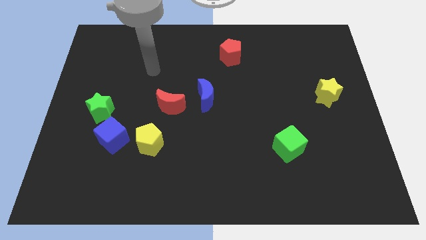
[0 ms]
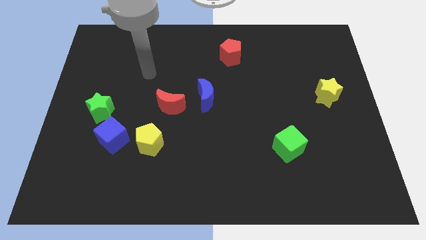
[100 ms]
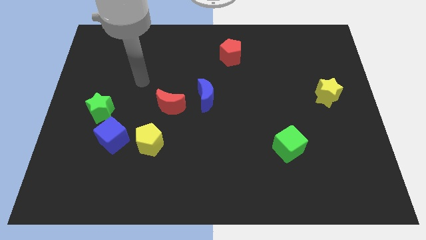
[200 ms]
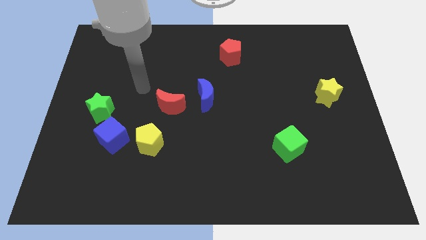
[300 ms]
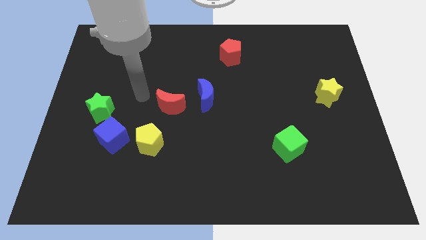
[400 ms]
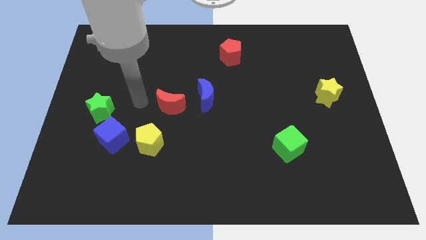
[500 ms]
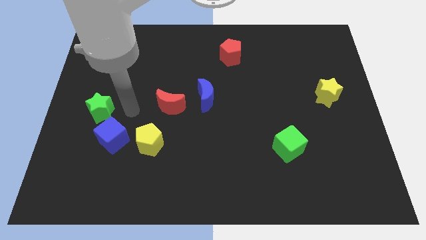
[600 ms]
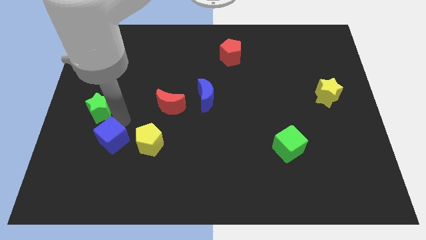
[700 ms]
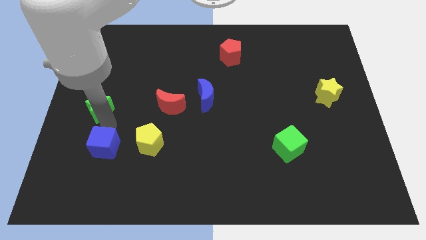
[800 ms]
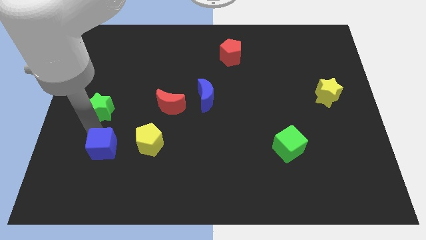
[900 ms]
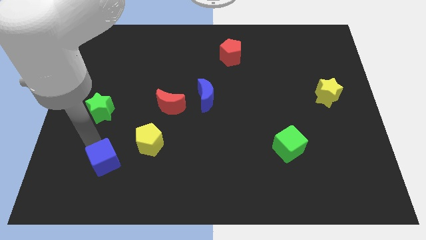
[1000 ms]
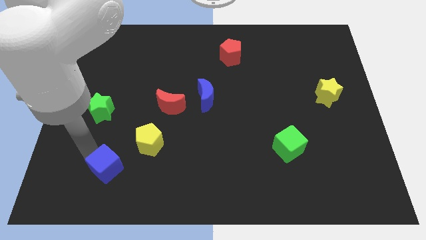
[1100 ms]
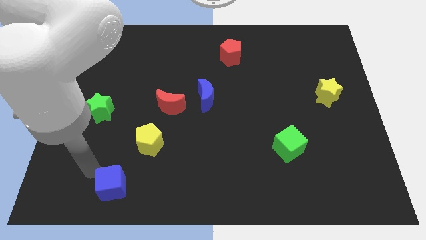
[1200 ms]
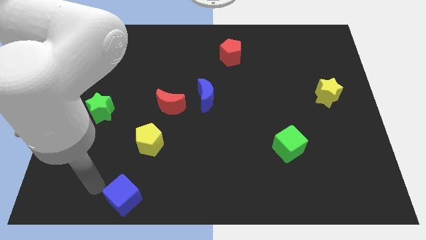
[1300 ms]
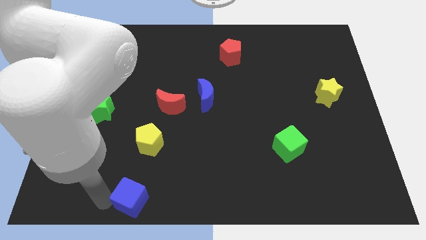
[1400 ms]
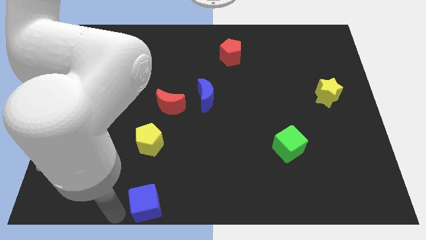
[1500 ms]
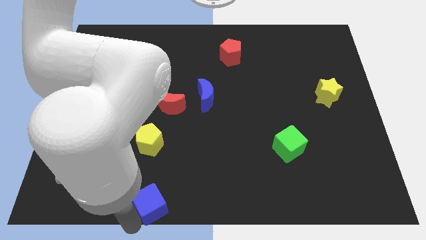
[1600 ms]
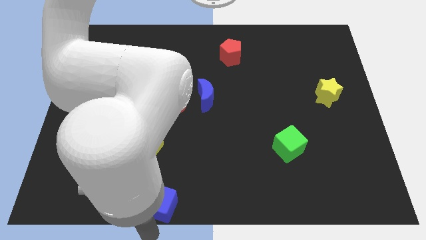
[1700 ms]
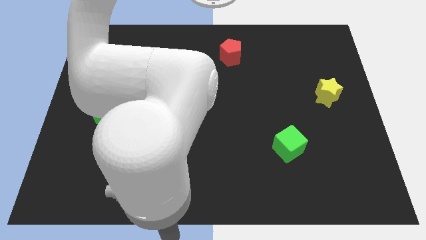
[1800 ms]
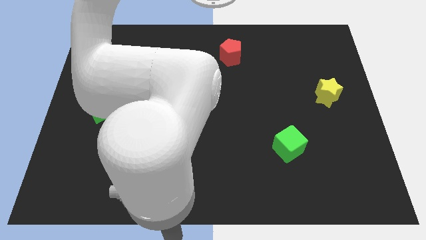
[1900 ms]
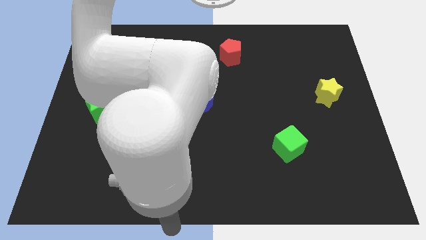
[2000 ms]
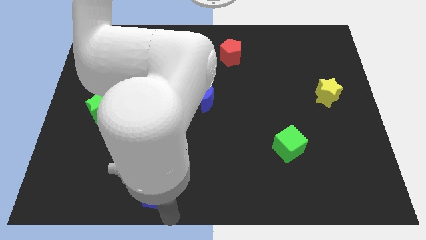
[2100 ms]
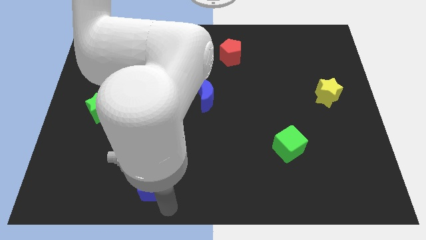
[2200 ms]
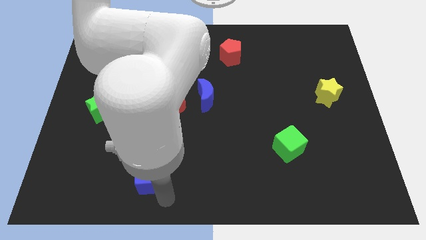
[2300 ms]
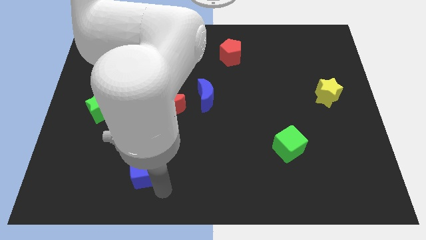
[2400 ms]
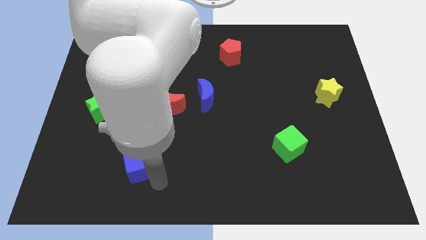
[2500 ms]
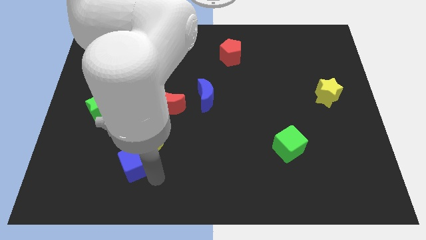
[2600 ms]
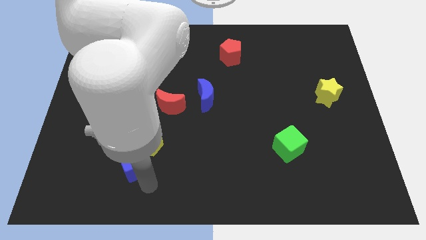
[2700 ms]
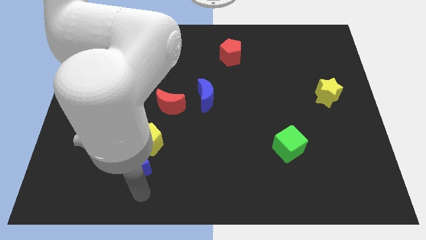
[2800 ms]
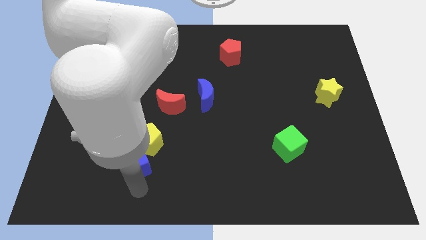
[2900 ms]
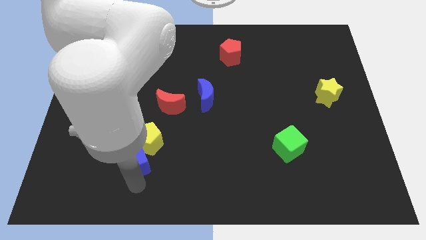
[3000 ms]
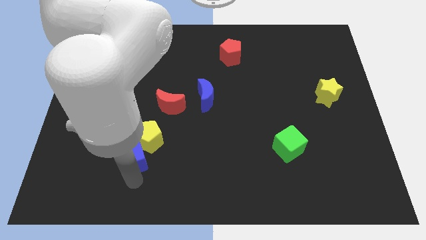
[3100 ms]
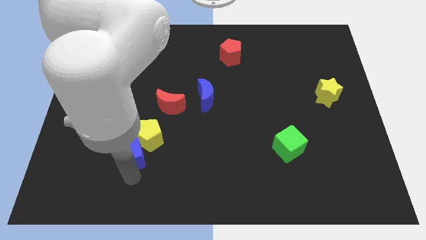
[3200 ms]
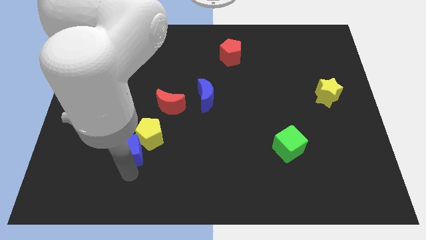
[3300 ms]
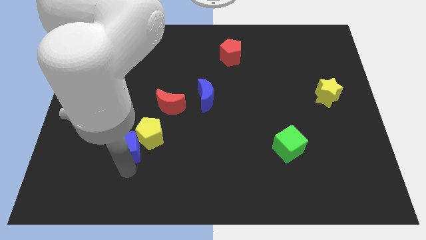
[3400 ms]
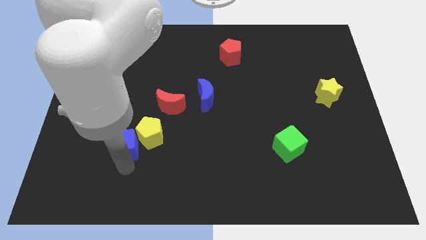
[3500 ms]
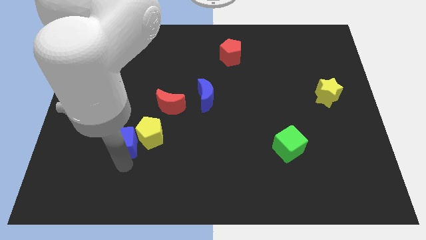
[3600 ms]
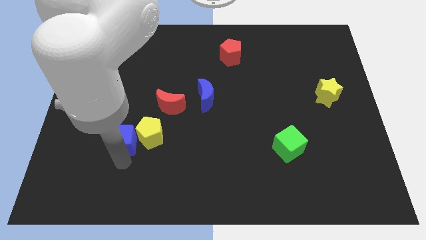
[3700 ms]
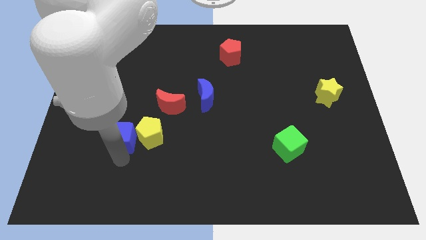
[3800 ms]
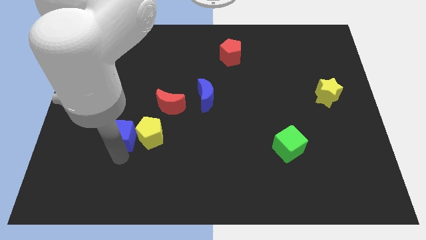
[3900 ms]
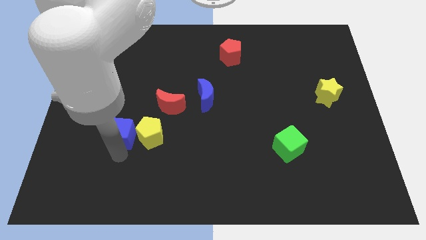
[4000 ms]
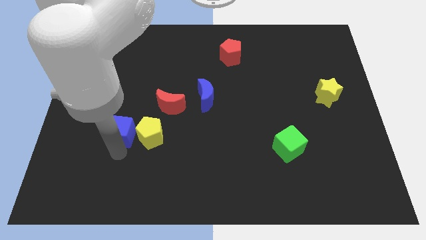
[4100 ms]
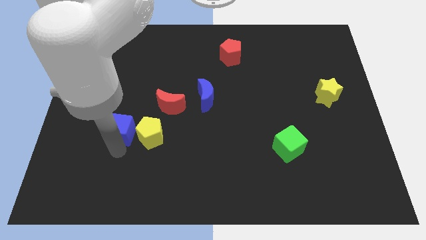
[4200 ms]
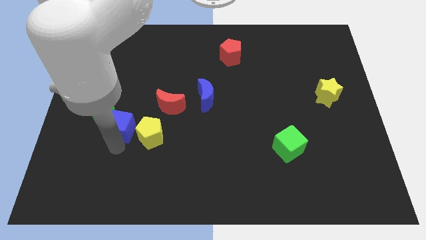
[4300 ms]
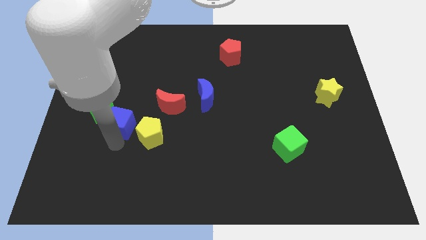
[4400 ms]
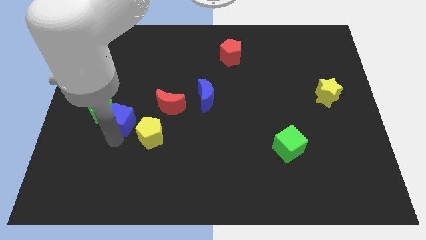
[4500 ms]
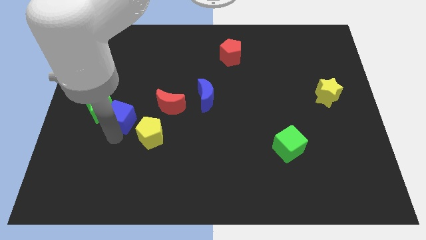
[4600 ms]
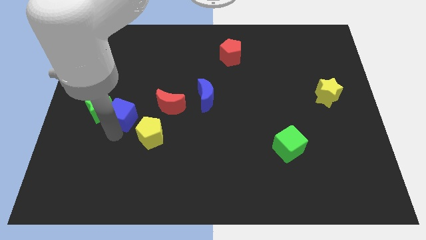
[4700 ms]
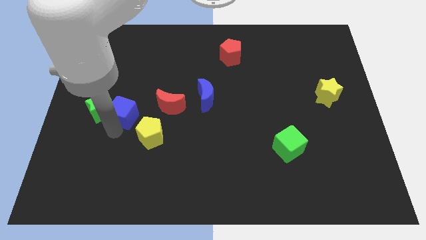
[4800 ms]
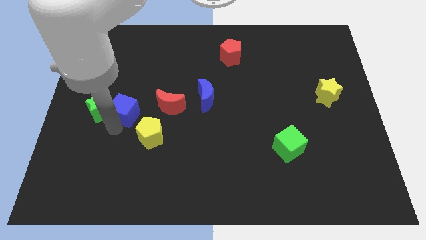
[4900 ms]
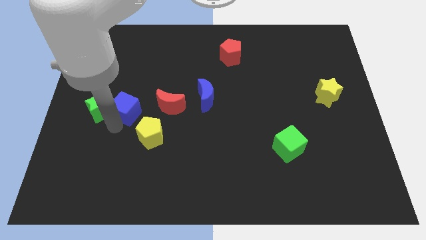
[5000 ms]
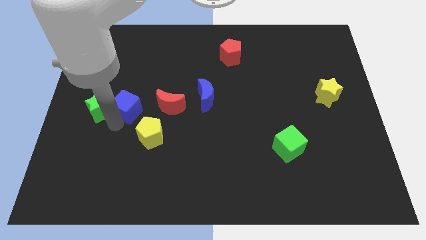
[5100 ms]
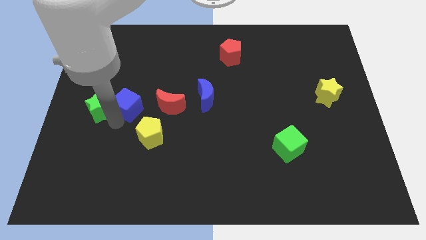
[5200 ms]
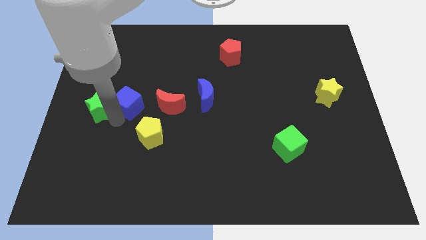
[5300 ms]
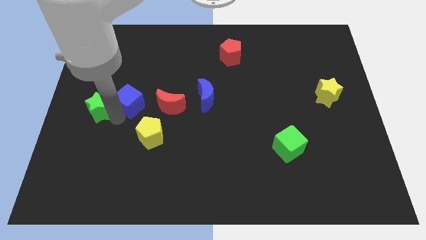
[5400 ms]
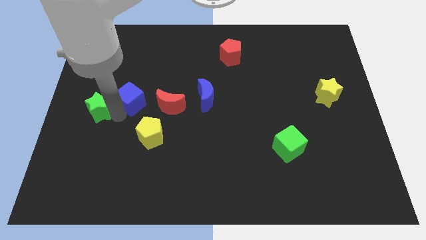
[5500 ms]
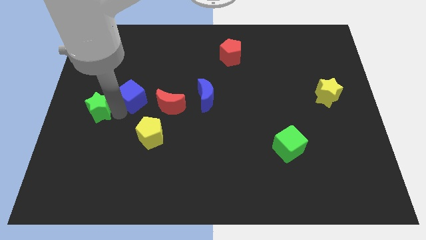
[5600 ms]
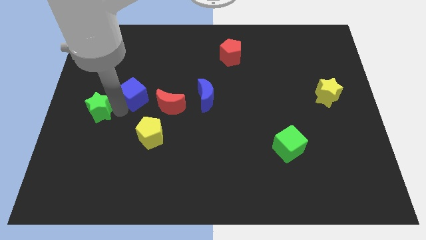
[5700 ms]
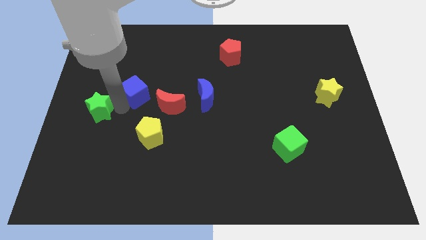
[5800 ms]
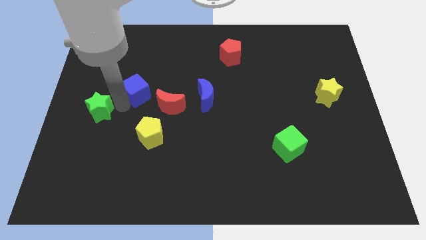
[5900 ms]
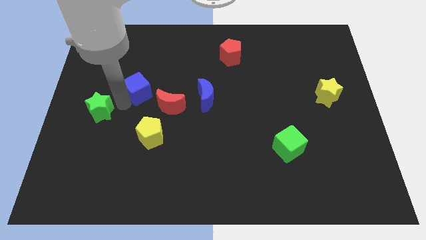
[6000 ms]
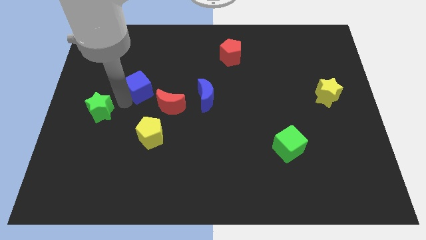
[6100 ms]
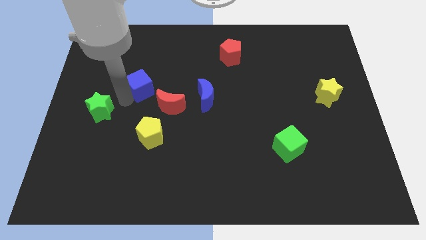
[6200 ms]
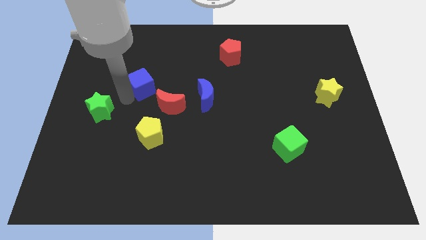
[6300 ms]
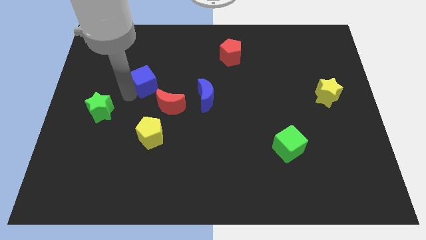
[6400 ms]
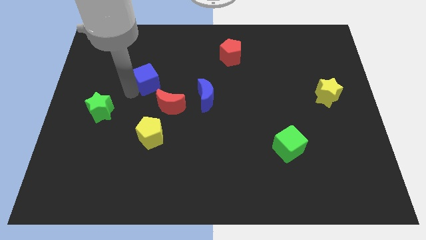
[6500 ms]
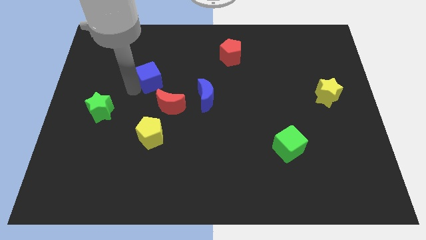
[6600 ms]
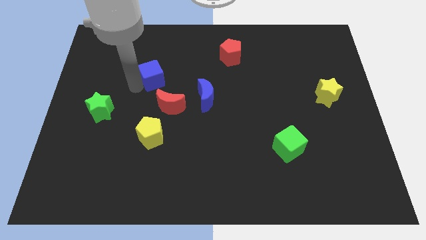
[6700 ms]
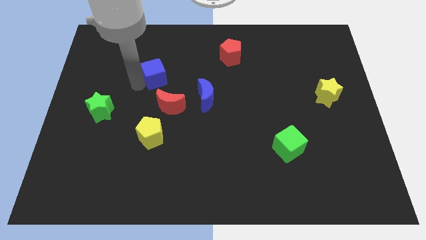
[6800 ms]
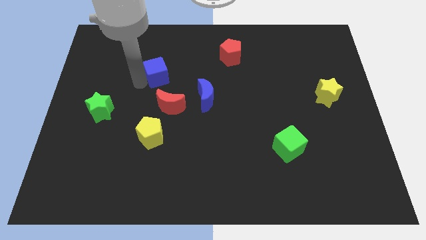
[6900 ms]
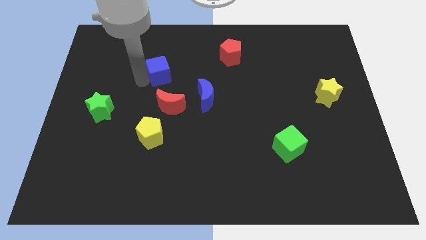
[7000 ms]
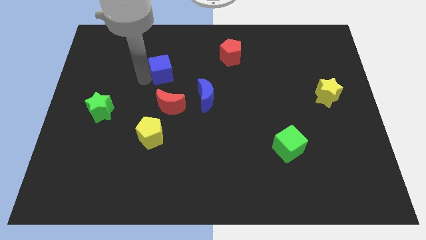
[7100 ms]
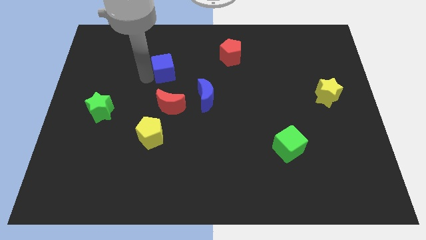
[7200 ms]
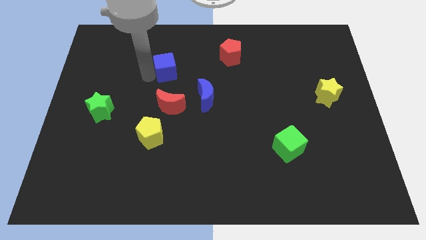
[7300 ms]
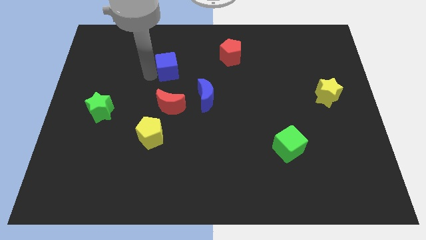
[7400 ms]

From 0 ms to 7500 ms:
move the blue cube up and then right

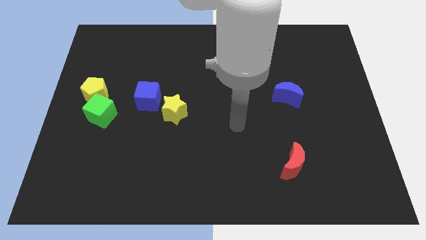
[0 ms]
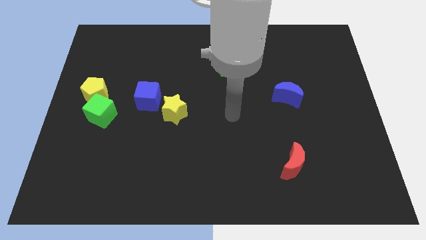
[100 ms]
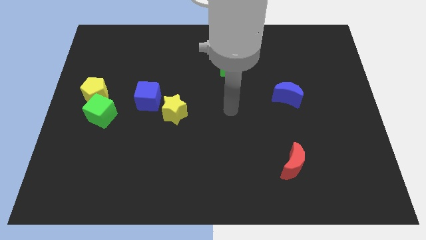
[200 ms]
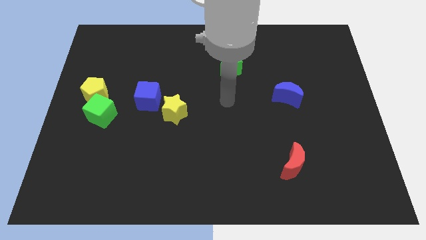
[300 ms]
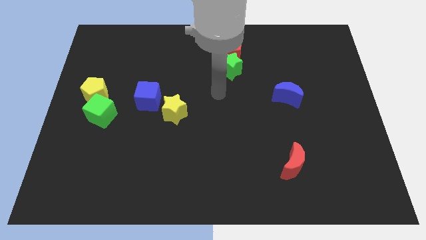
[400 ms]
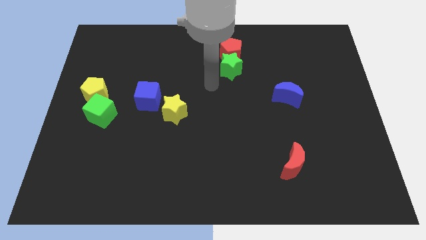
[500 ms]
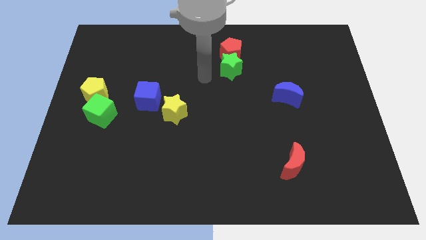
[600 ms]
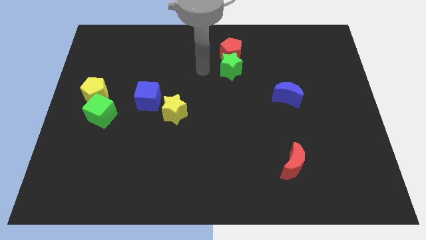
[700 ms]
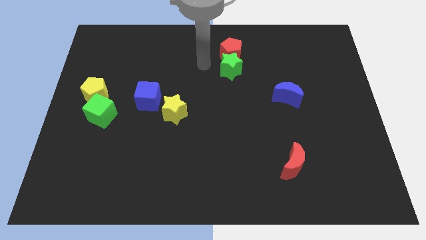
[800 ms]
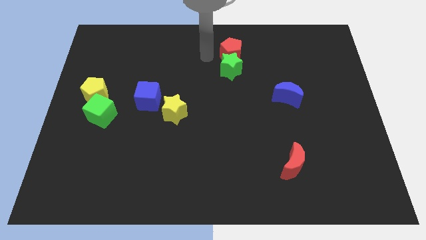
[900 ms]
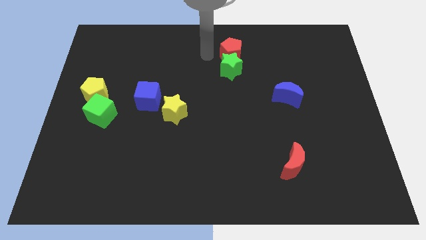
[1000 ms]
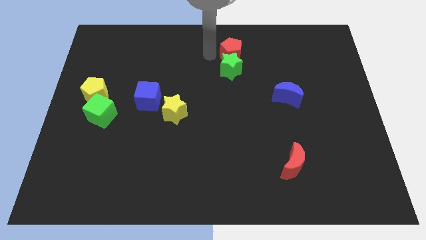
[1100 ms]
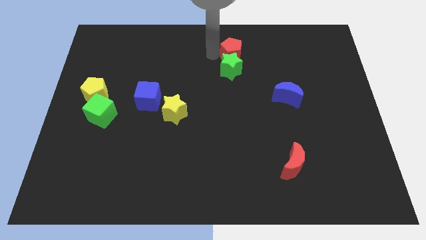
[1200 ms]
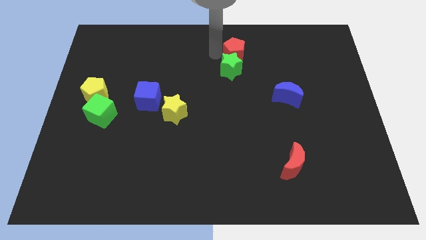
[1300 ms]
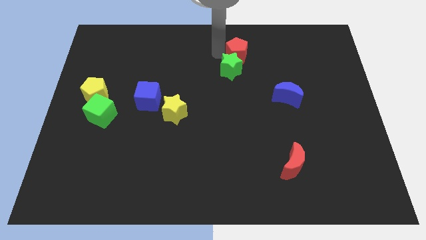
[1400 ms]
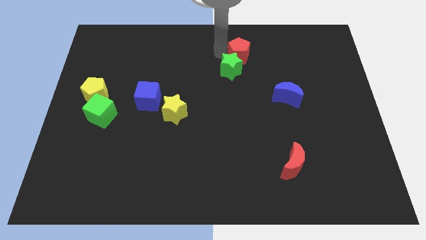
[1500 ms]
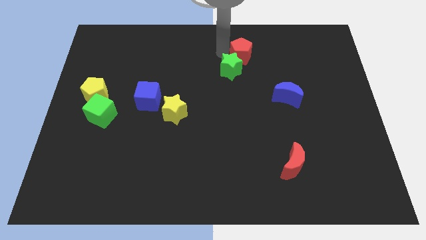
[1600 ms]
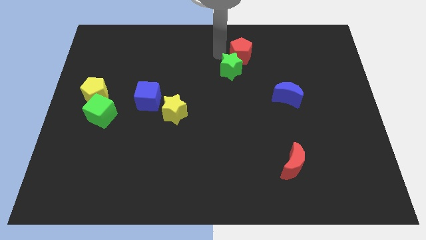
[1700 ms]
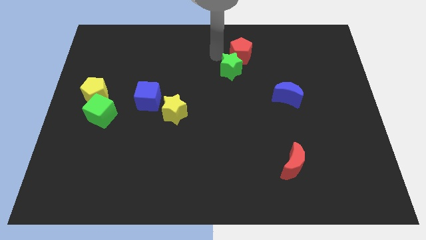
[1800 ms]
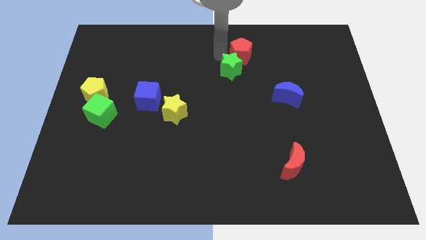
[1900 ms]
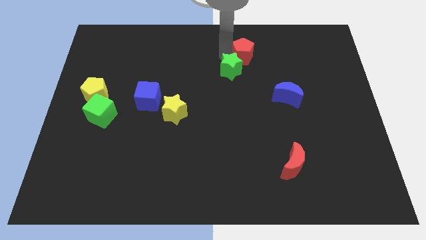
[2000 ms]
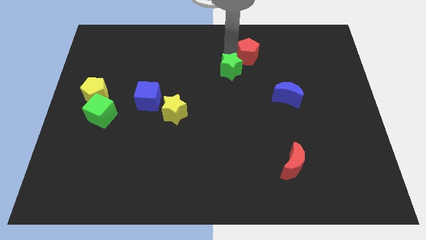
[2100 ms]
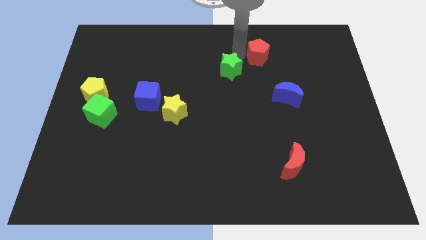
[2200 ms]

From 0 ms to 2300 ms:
slightly push the red pentagon to the right
